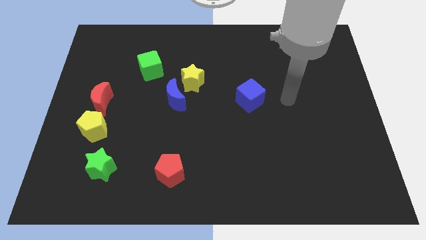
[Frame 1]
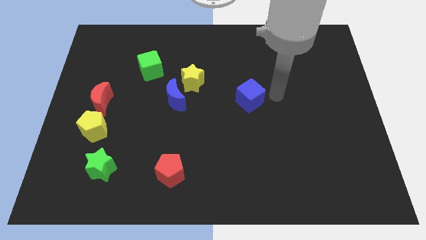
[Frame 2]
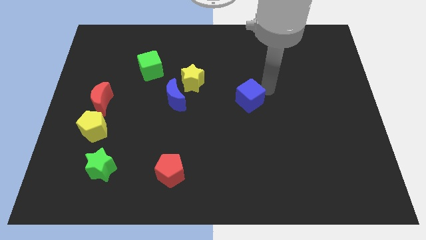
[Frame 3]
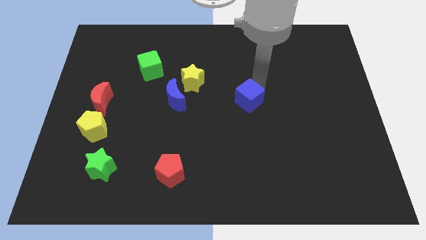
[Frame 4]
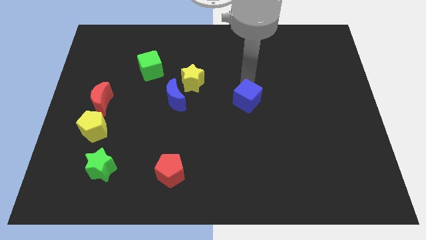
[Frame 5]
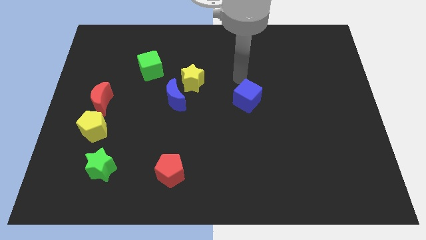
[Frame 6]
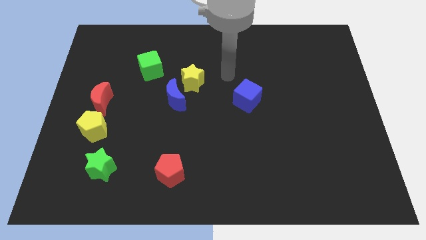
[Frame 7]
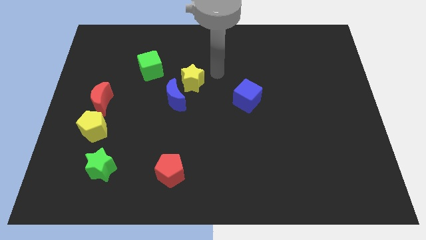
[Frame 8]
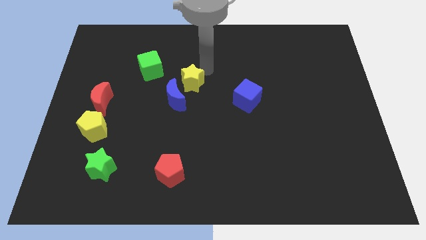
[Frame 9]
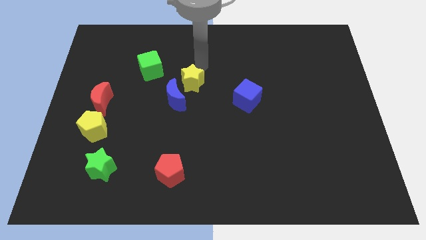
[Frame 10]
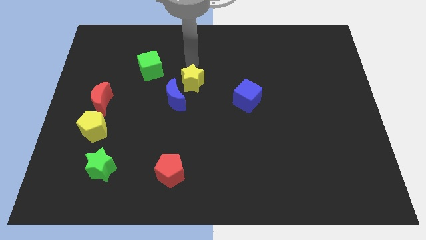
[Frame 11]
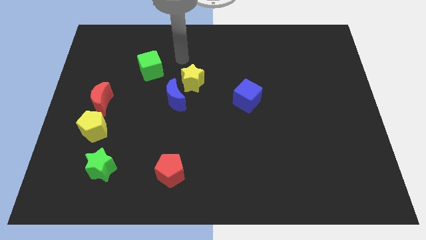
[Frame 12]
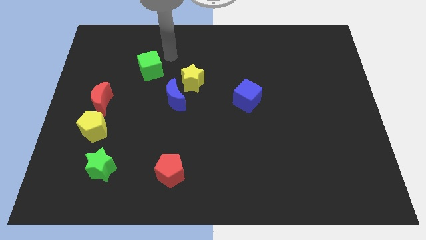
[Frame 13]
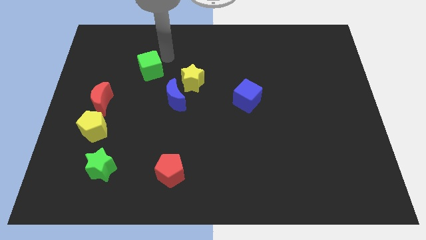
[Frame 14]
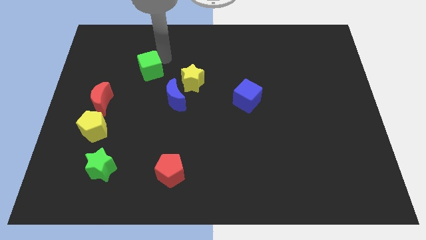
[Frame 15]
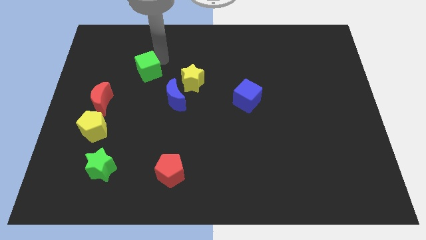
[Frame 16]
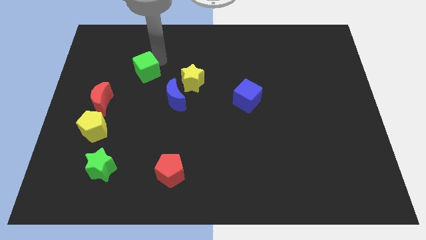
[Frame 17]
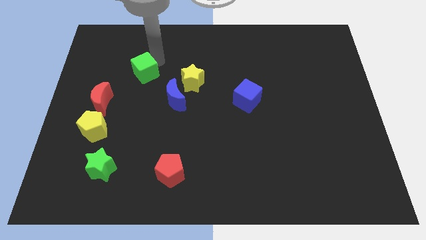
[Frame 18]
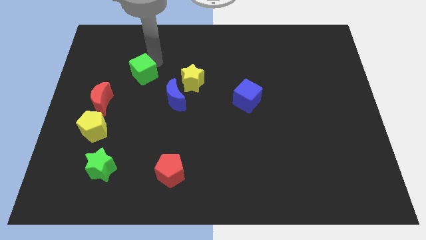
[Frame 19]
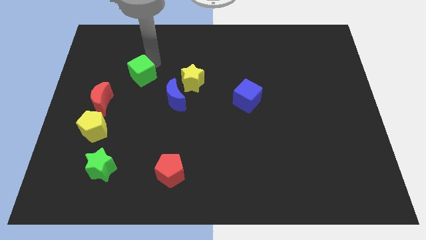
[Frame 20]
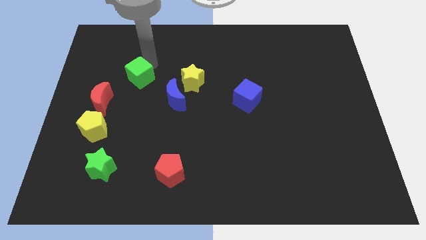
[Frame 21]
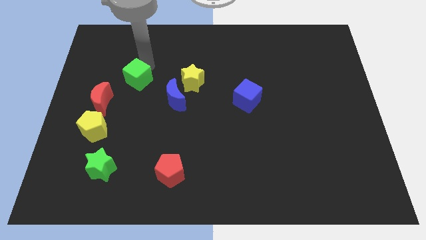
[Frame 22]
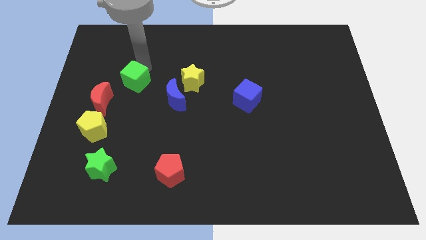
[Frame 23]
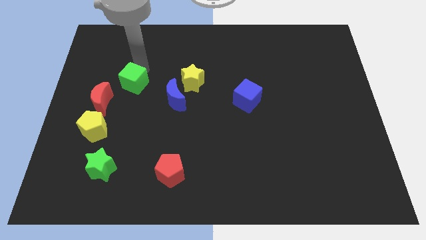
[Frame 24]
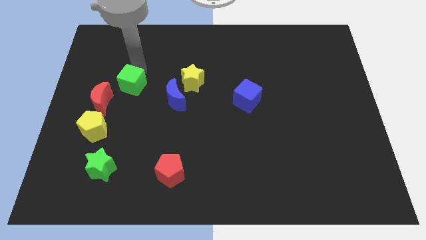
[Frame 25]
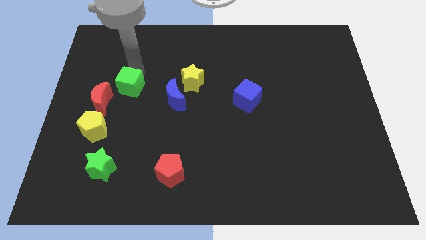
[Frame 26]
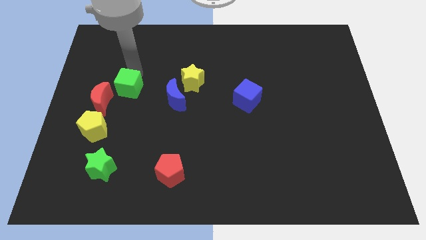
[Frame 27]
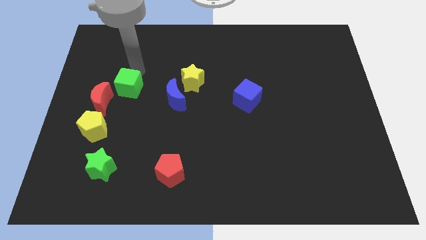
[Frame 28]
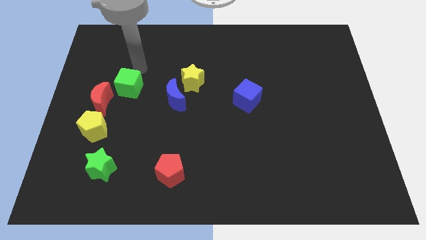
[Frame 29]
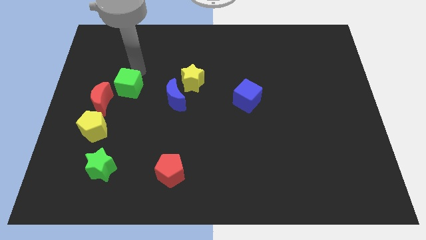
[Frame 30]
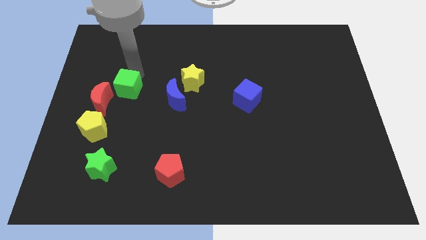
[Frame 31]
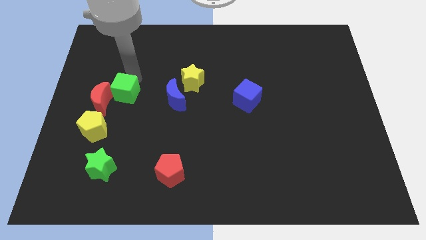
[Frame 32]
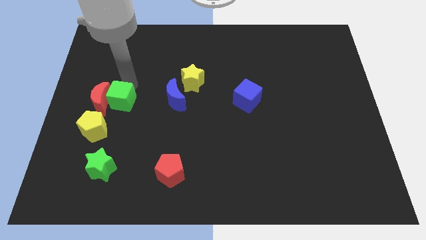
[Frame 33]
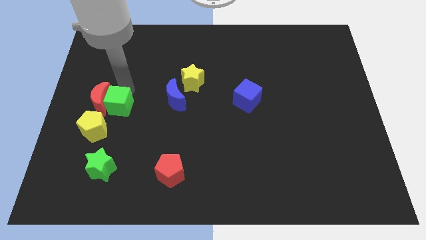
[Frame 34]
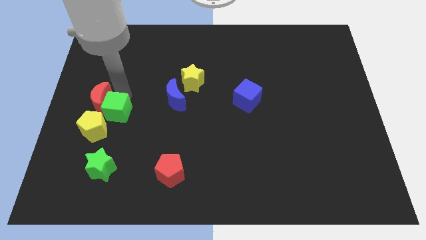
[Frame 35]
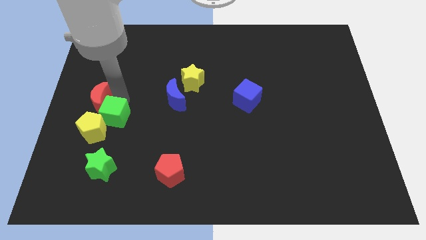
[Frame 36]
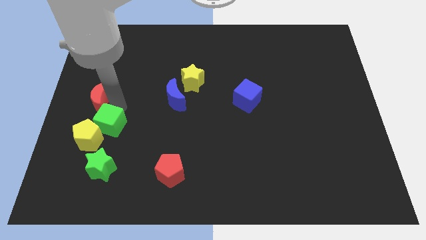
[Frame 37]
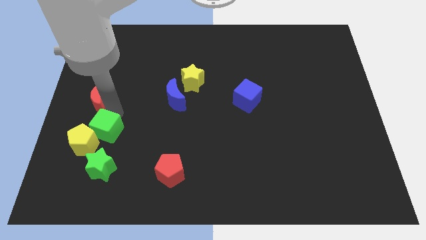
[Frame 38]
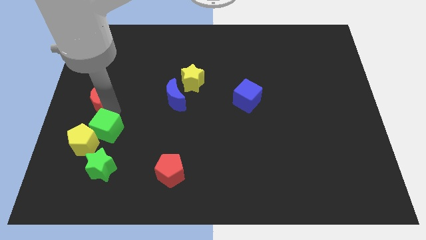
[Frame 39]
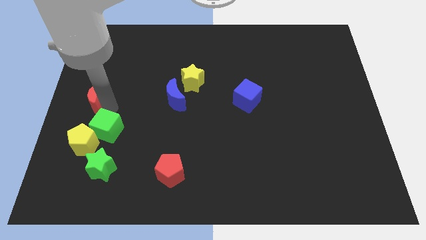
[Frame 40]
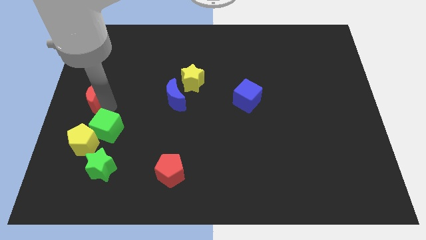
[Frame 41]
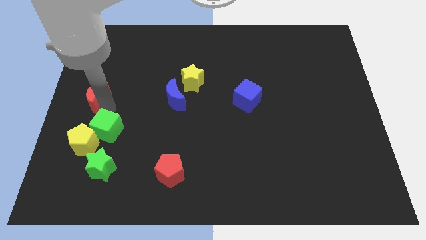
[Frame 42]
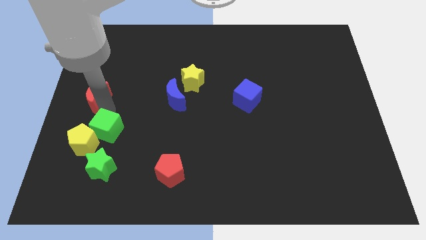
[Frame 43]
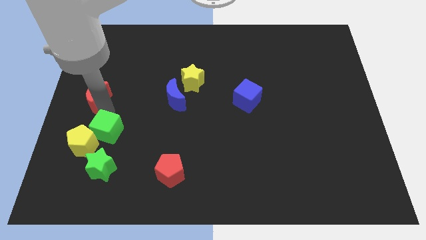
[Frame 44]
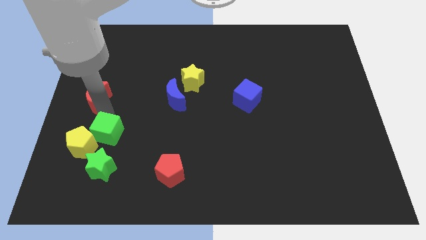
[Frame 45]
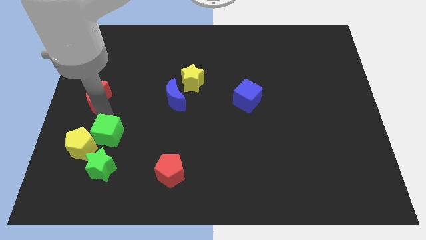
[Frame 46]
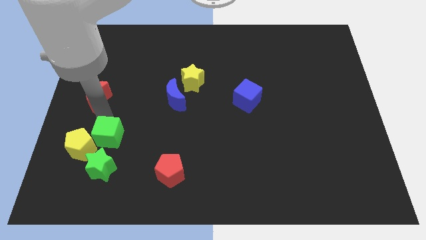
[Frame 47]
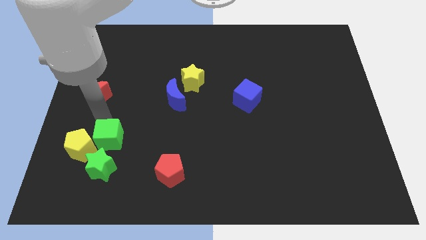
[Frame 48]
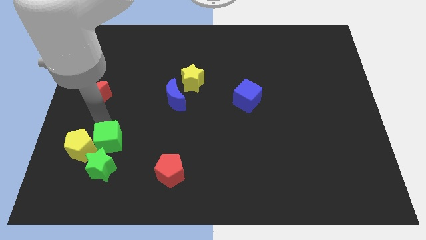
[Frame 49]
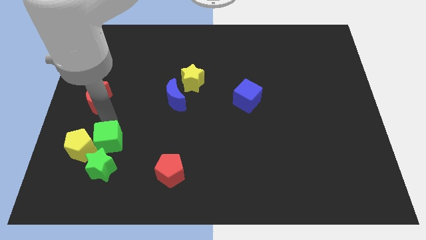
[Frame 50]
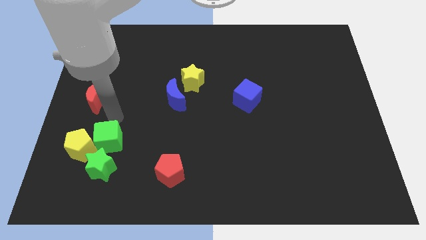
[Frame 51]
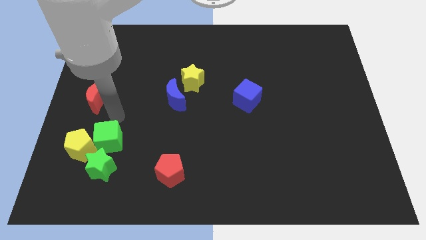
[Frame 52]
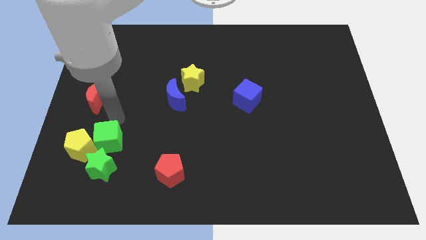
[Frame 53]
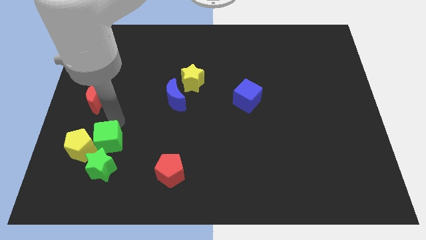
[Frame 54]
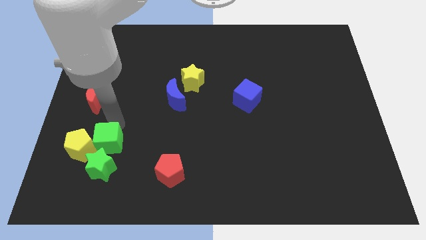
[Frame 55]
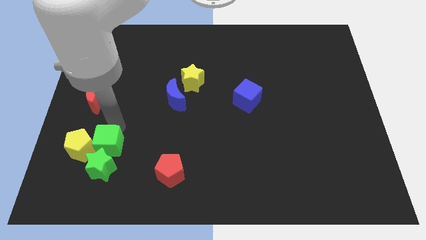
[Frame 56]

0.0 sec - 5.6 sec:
put the green cube towards the green star

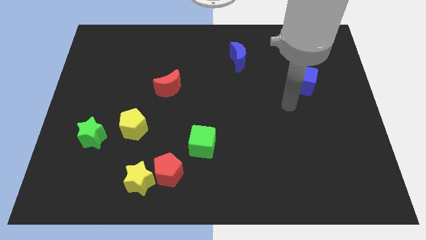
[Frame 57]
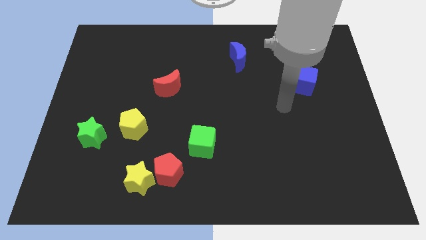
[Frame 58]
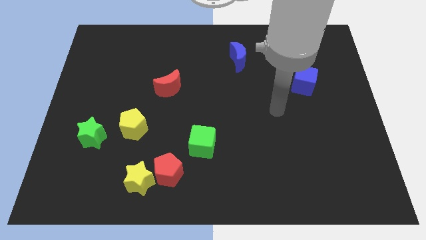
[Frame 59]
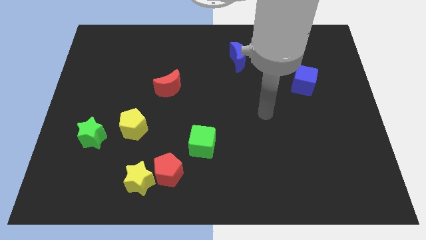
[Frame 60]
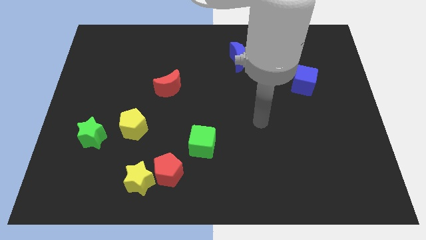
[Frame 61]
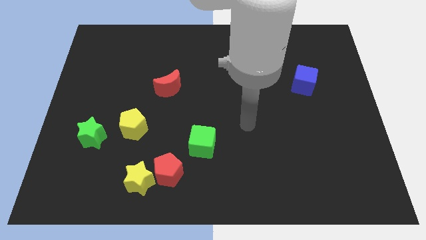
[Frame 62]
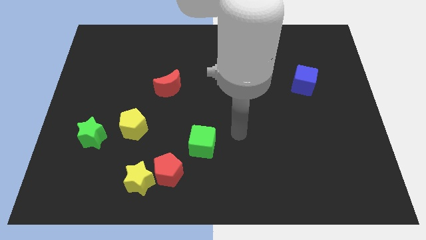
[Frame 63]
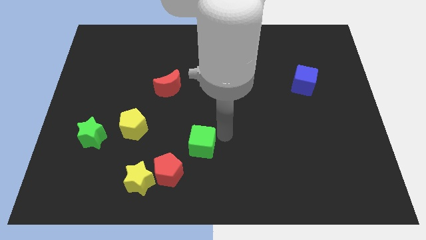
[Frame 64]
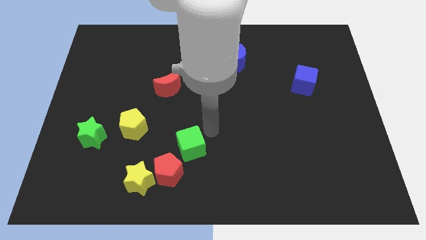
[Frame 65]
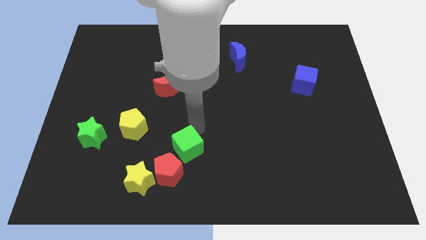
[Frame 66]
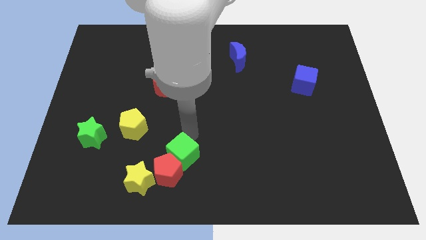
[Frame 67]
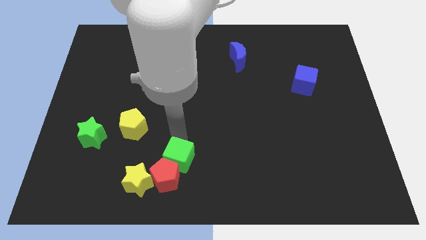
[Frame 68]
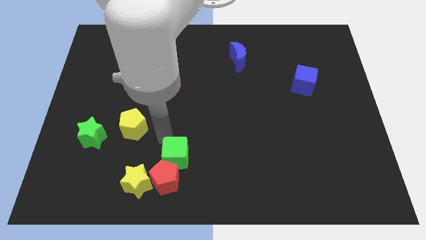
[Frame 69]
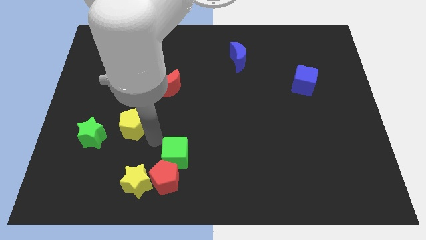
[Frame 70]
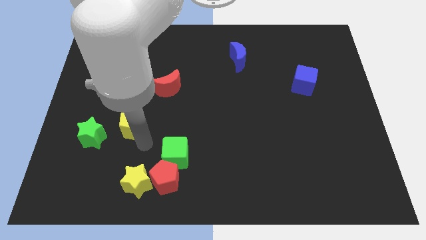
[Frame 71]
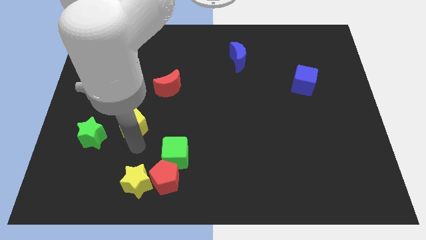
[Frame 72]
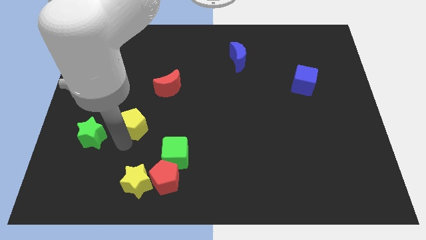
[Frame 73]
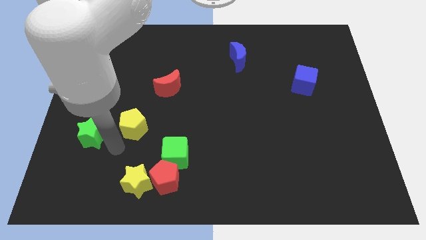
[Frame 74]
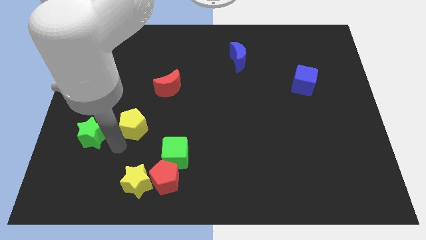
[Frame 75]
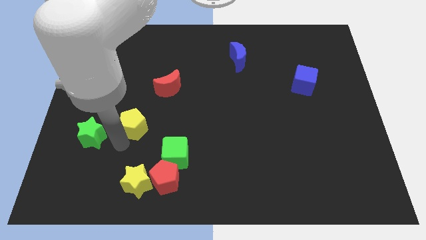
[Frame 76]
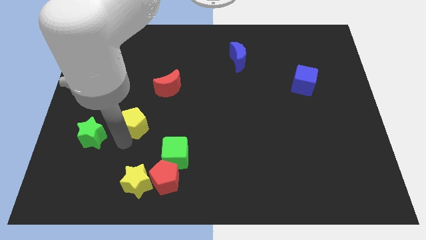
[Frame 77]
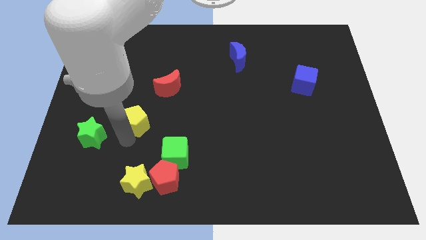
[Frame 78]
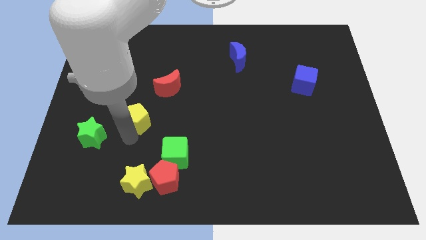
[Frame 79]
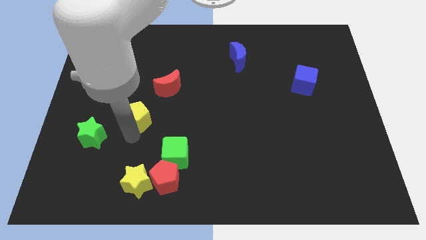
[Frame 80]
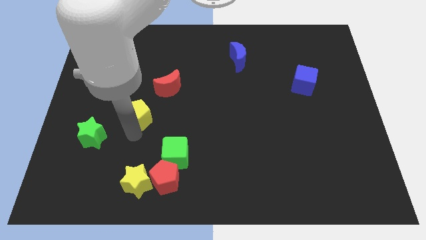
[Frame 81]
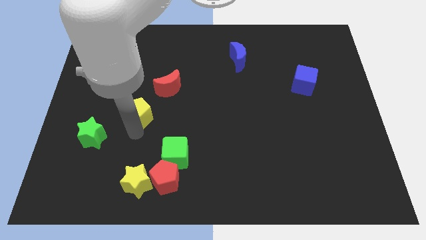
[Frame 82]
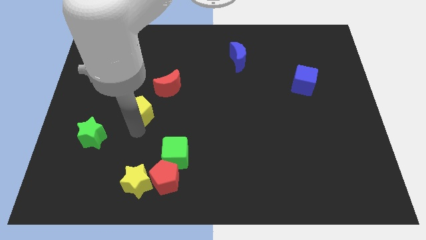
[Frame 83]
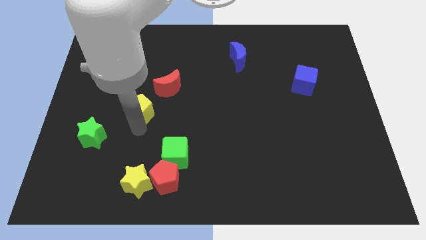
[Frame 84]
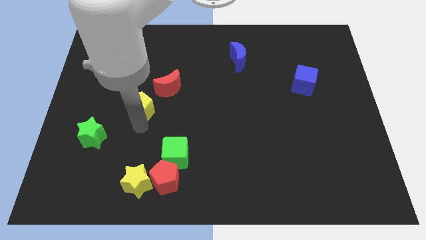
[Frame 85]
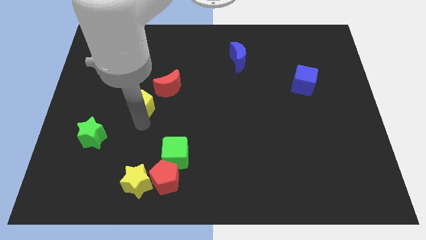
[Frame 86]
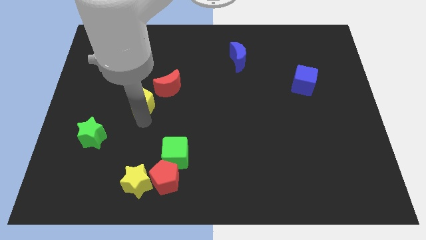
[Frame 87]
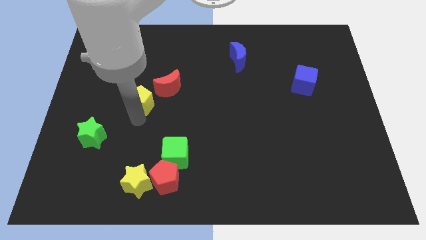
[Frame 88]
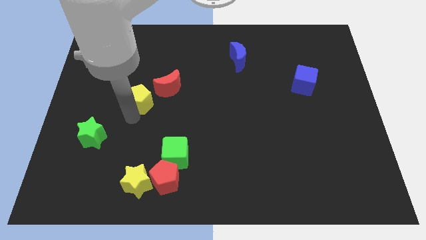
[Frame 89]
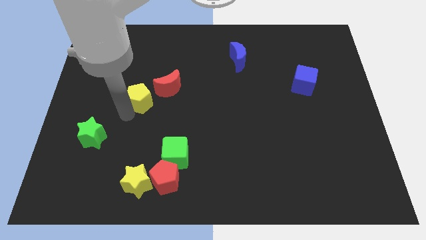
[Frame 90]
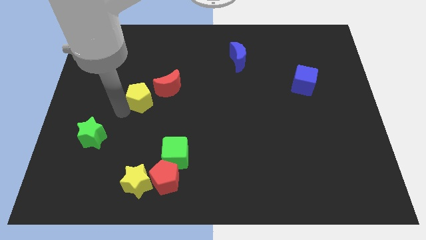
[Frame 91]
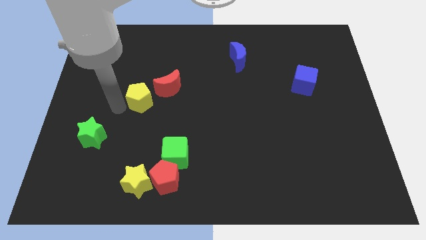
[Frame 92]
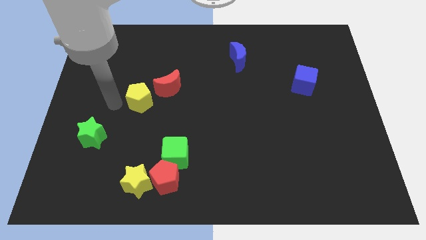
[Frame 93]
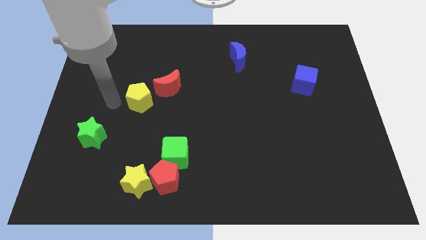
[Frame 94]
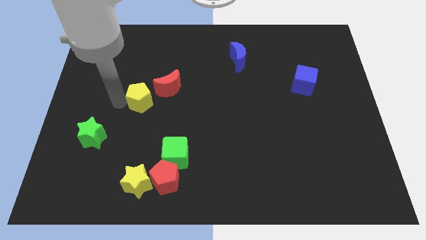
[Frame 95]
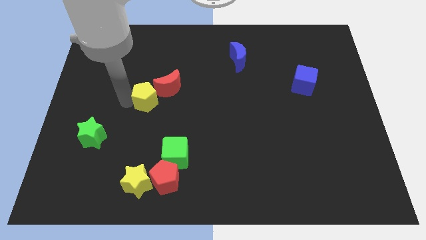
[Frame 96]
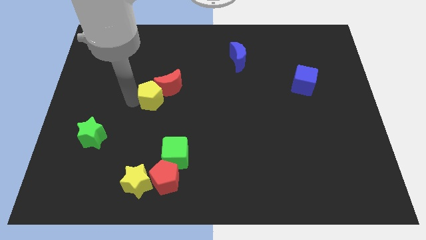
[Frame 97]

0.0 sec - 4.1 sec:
slide the yellow pentagon towards the red moon
